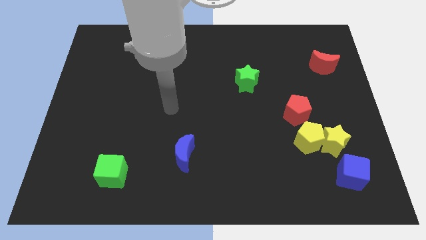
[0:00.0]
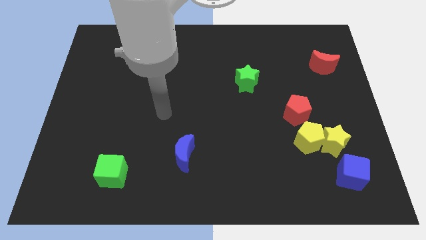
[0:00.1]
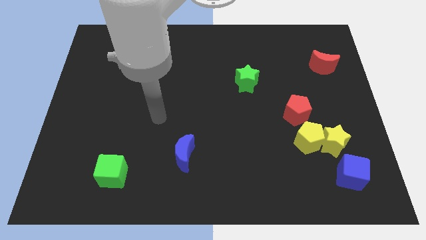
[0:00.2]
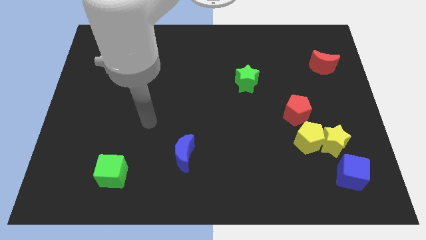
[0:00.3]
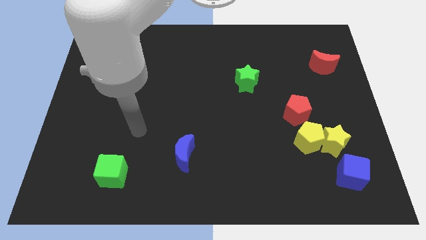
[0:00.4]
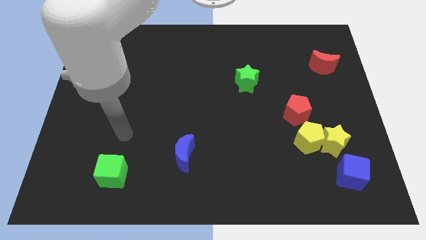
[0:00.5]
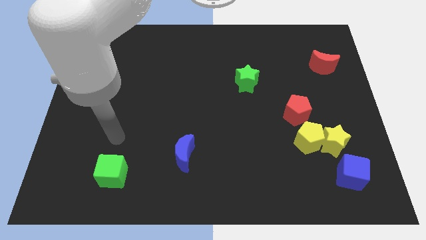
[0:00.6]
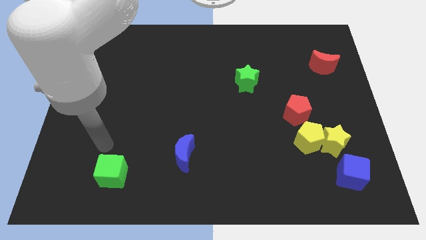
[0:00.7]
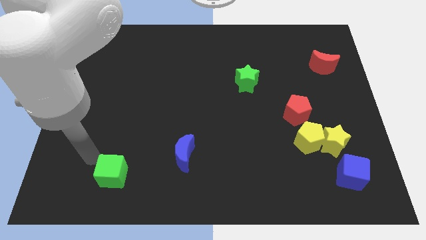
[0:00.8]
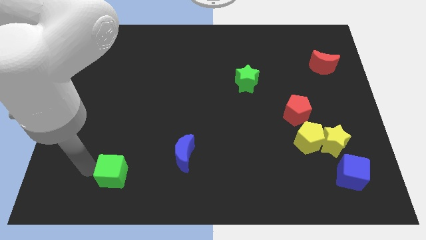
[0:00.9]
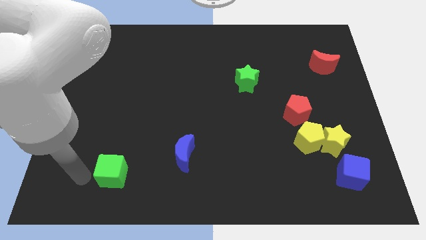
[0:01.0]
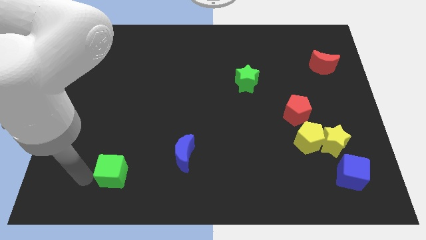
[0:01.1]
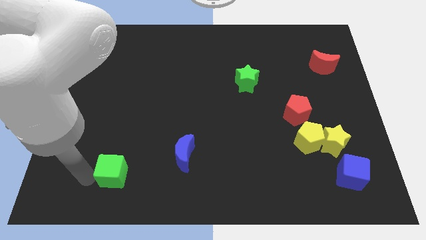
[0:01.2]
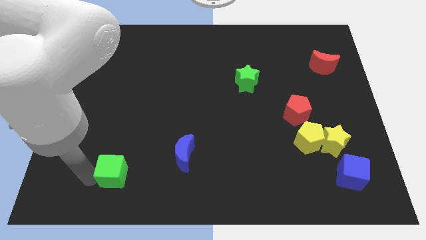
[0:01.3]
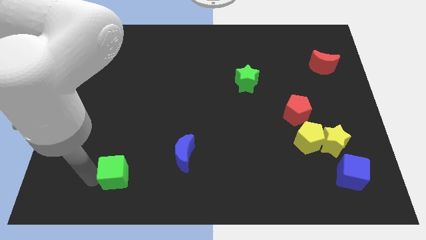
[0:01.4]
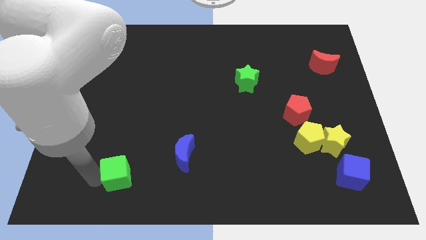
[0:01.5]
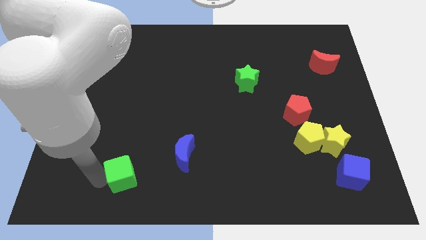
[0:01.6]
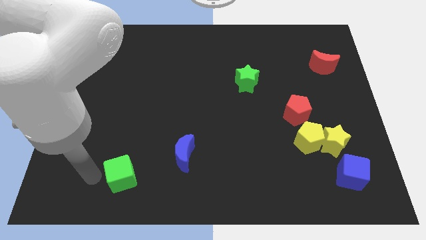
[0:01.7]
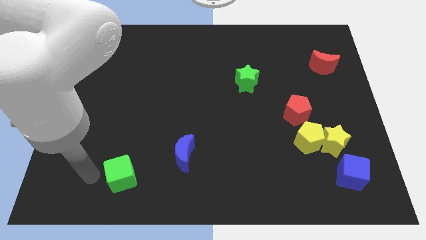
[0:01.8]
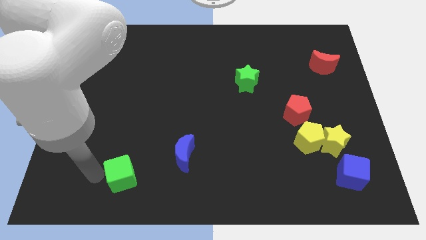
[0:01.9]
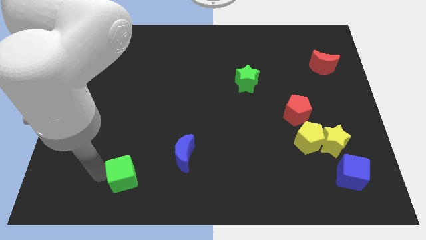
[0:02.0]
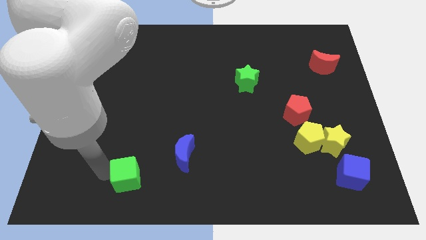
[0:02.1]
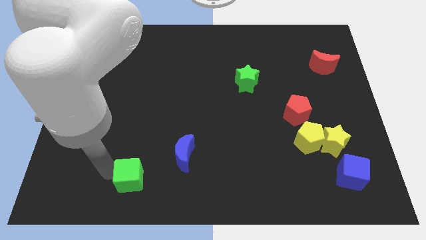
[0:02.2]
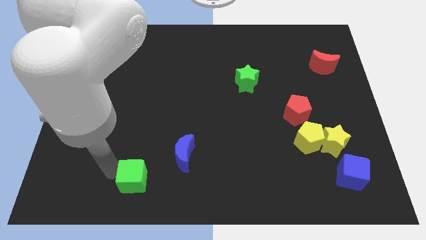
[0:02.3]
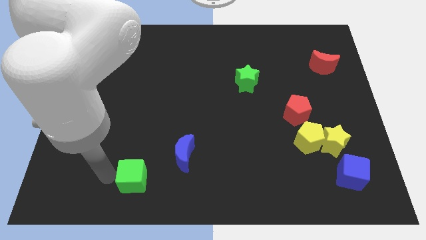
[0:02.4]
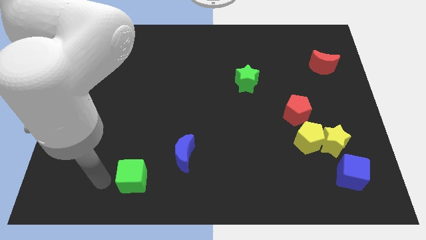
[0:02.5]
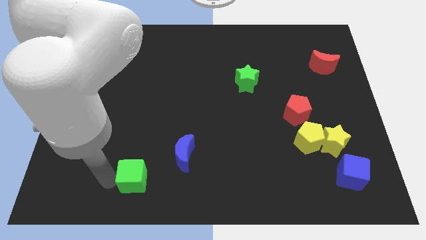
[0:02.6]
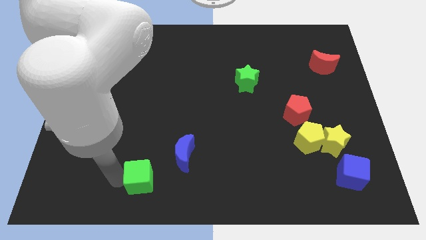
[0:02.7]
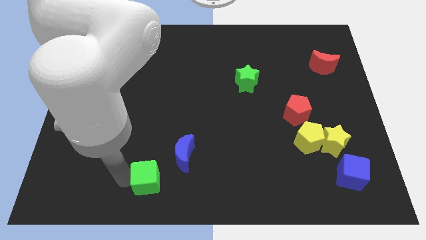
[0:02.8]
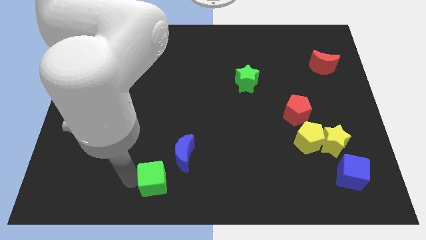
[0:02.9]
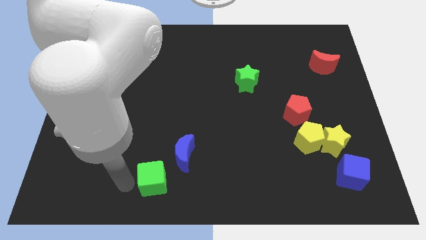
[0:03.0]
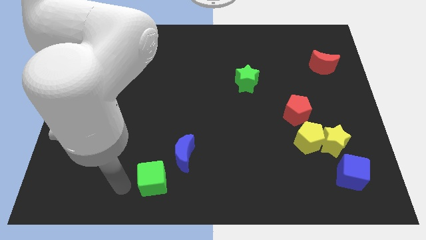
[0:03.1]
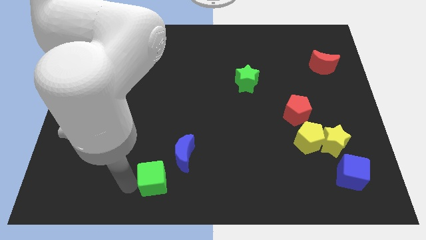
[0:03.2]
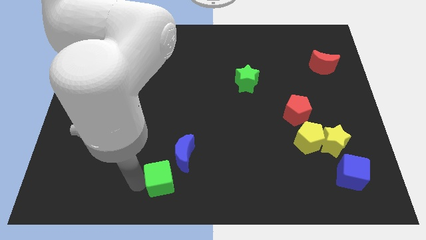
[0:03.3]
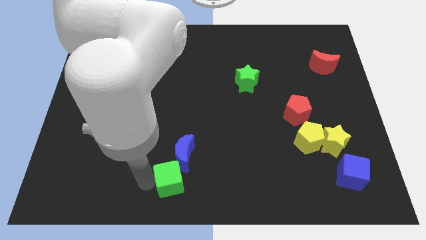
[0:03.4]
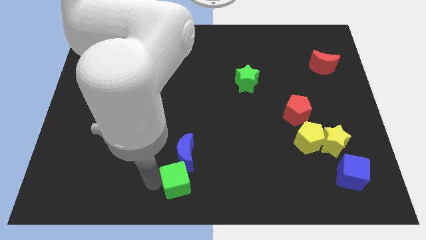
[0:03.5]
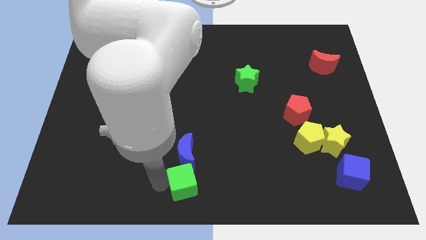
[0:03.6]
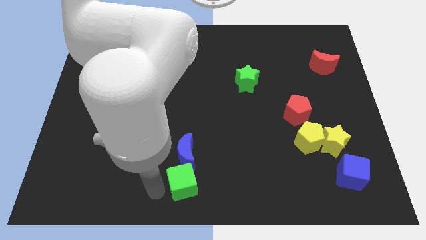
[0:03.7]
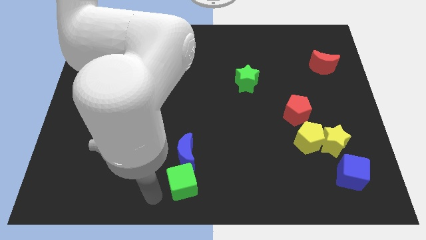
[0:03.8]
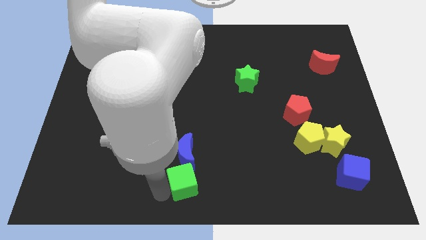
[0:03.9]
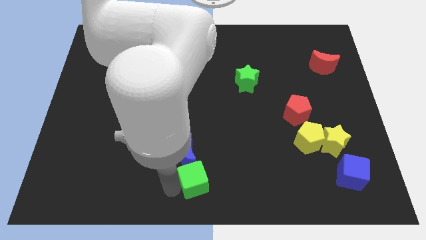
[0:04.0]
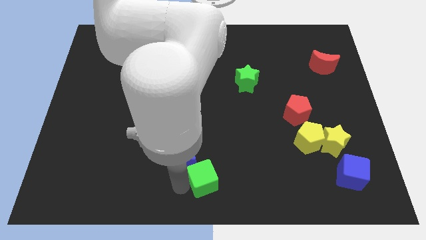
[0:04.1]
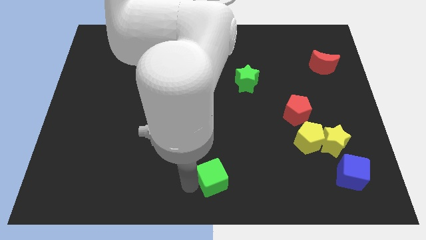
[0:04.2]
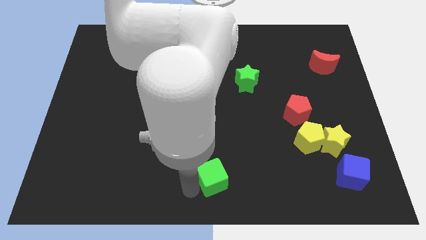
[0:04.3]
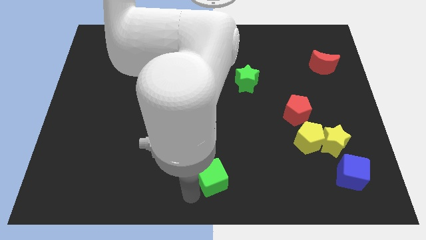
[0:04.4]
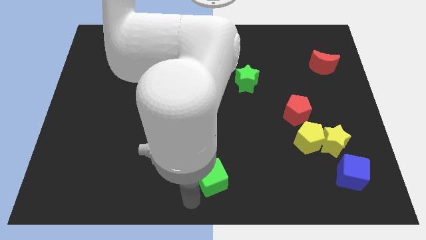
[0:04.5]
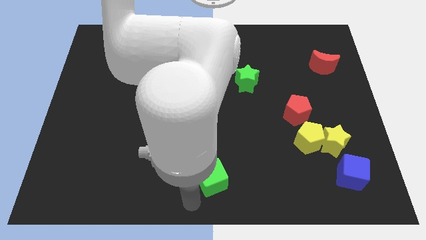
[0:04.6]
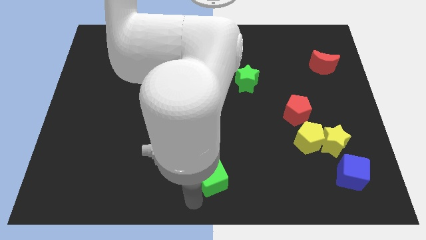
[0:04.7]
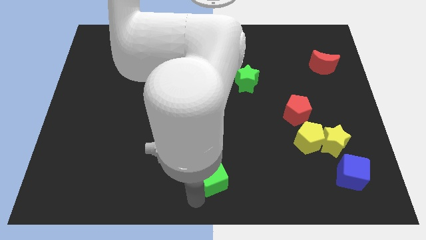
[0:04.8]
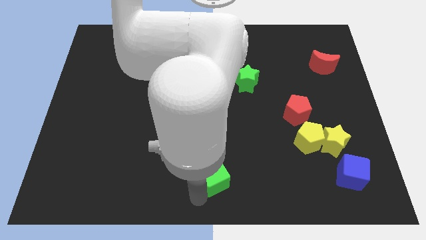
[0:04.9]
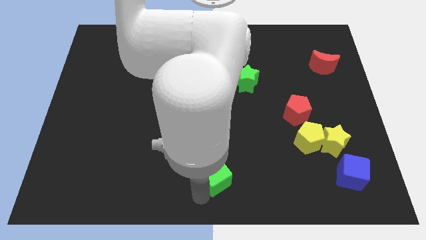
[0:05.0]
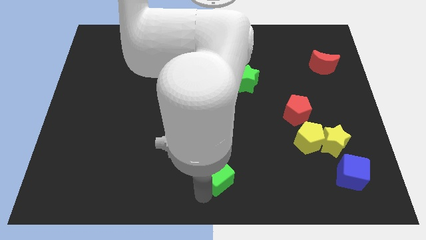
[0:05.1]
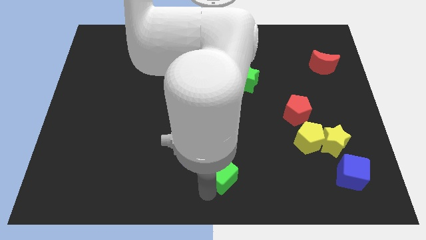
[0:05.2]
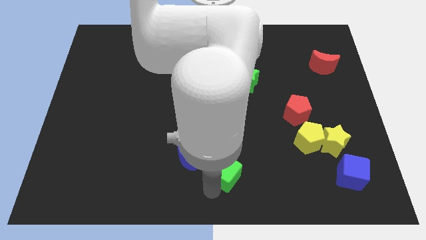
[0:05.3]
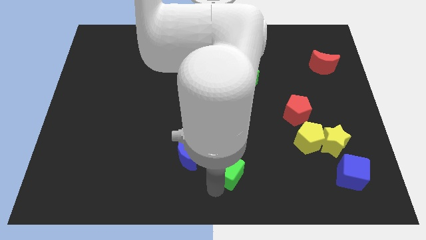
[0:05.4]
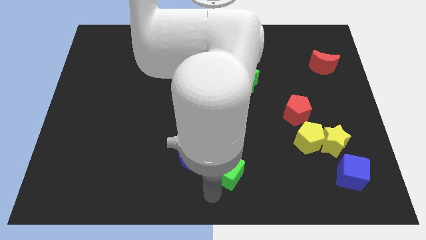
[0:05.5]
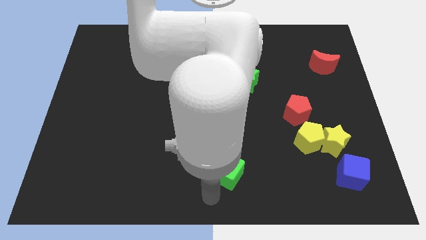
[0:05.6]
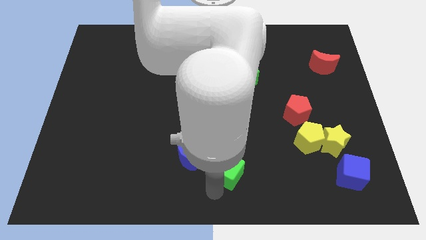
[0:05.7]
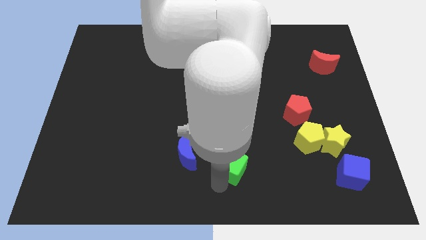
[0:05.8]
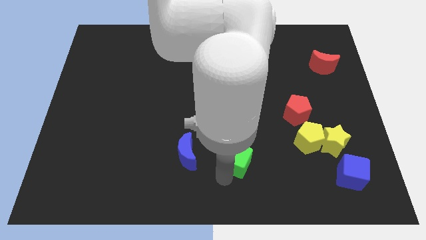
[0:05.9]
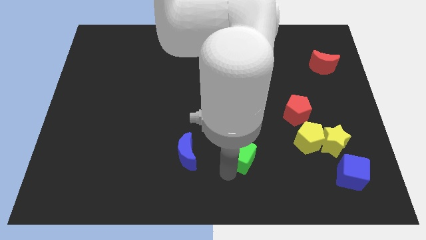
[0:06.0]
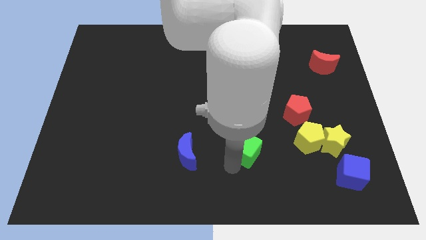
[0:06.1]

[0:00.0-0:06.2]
push the green cube to the left side of the yellow pentagon

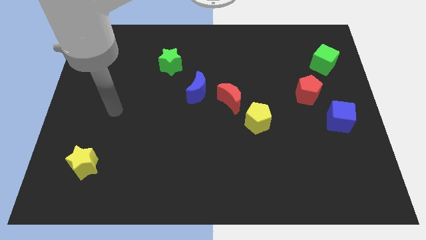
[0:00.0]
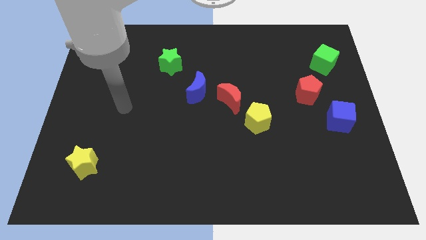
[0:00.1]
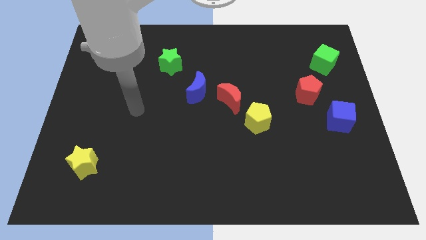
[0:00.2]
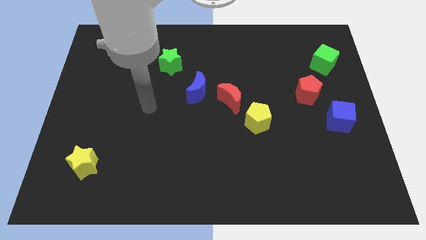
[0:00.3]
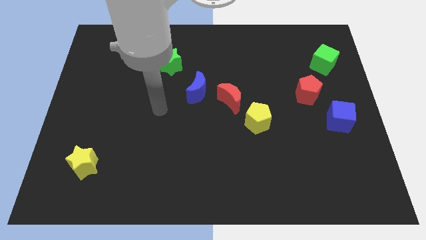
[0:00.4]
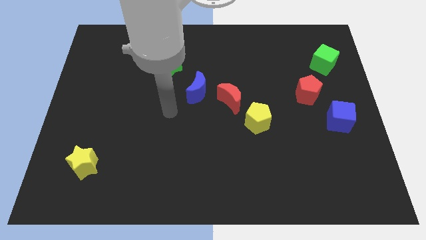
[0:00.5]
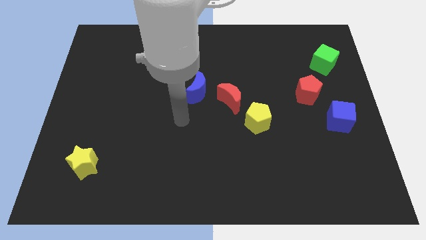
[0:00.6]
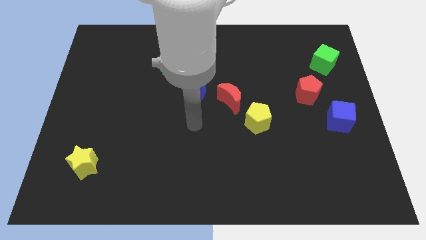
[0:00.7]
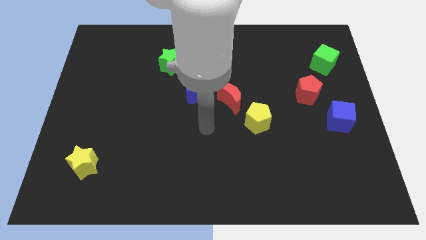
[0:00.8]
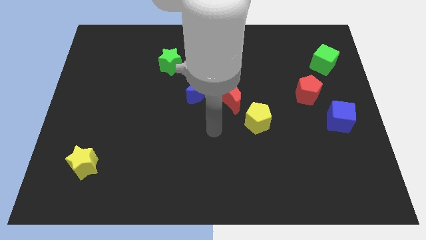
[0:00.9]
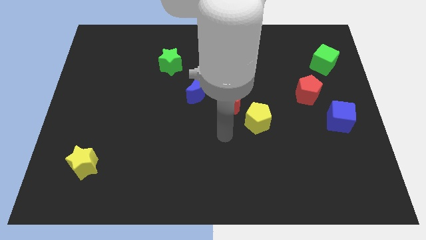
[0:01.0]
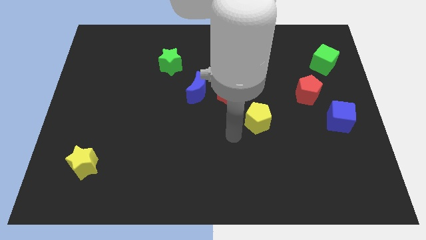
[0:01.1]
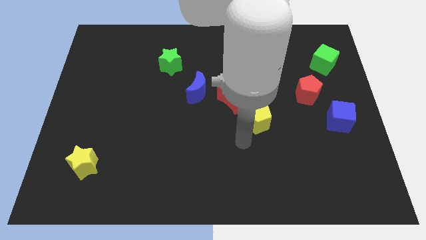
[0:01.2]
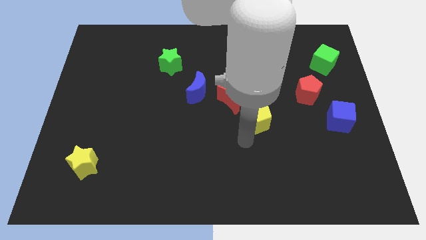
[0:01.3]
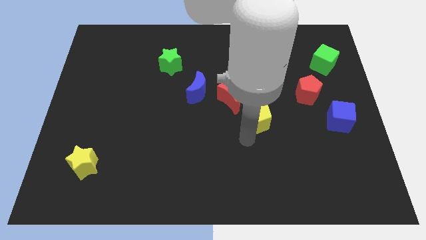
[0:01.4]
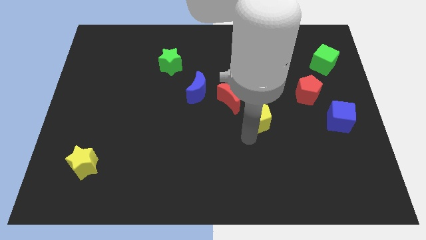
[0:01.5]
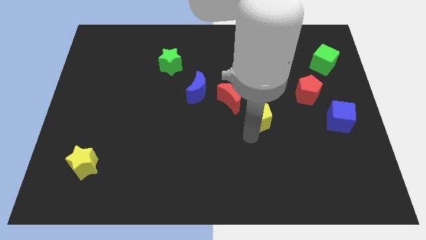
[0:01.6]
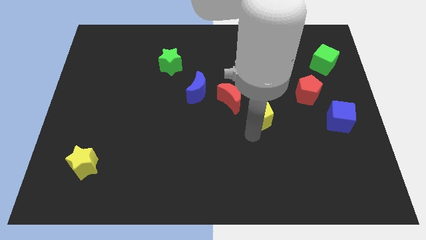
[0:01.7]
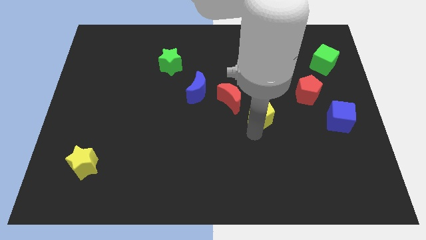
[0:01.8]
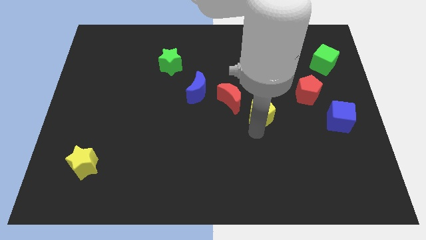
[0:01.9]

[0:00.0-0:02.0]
slide the yellow pentagon just right of the red moon
